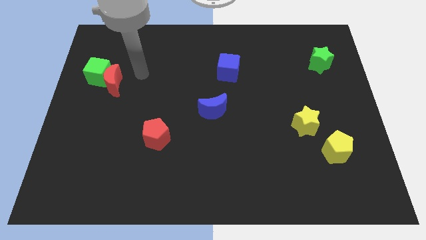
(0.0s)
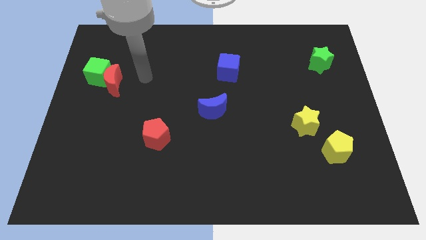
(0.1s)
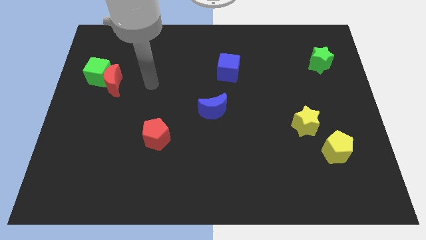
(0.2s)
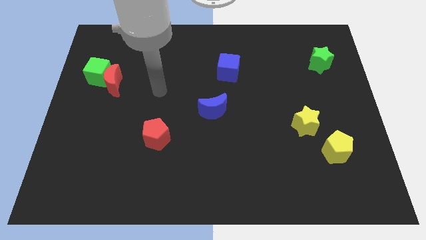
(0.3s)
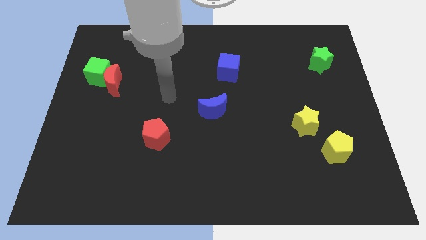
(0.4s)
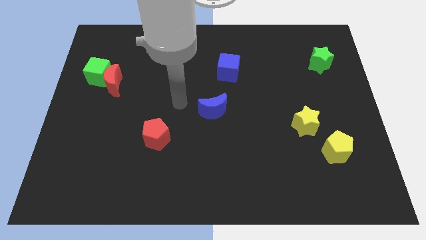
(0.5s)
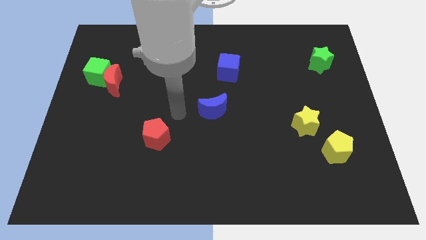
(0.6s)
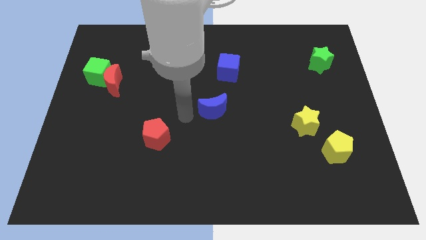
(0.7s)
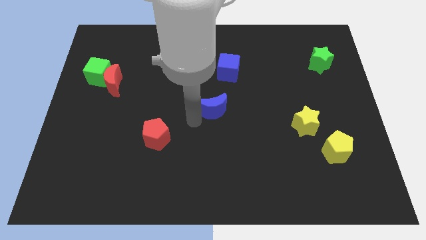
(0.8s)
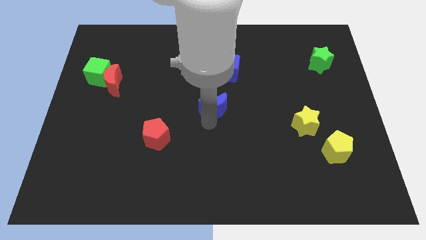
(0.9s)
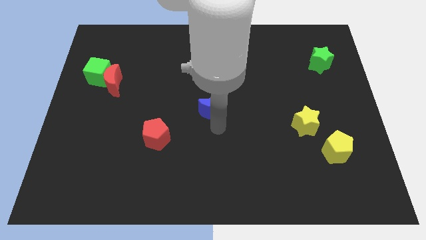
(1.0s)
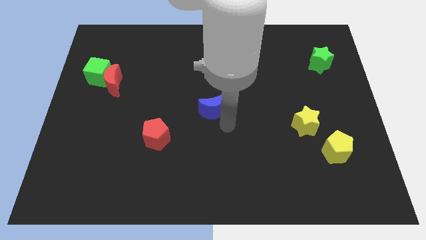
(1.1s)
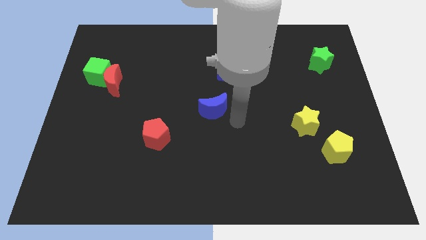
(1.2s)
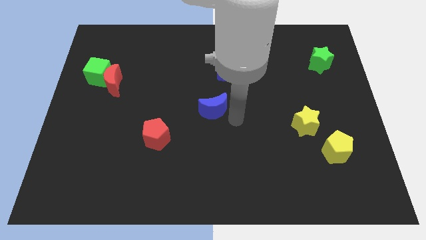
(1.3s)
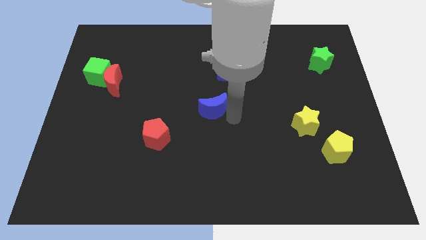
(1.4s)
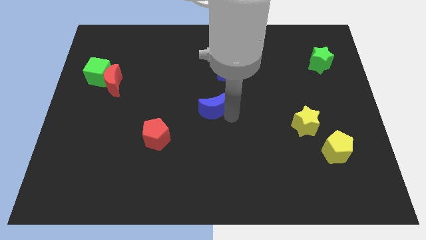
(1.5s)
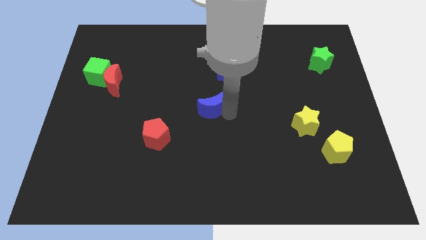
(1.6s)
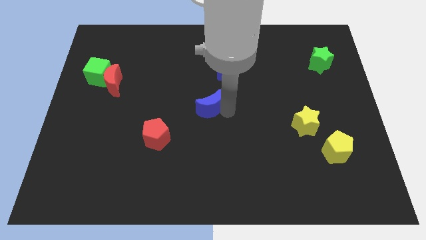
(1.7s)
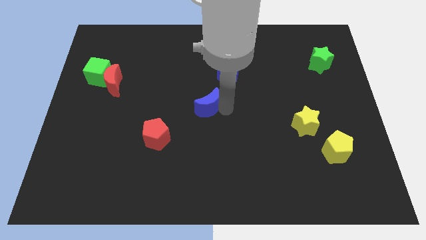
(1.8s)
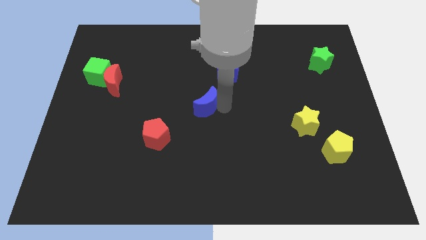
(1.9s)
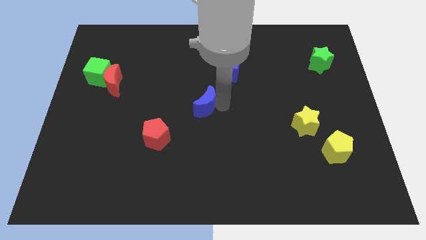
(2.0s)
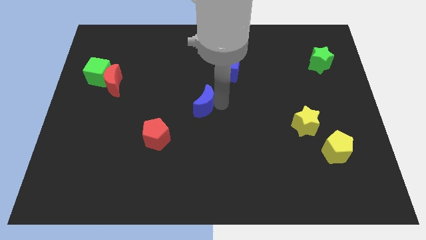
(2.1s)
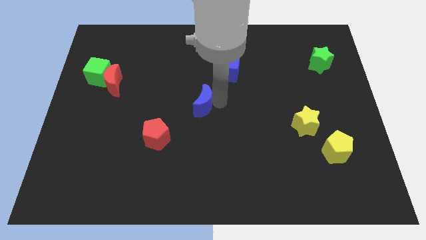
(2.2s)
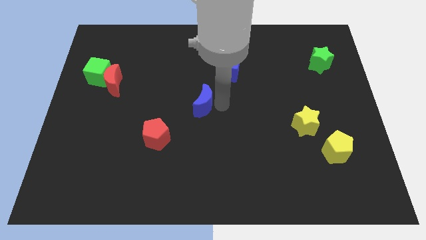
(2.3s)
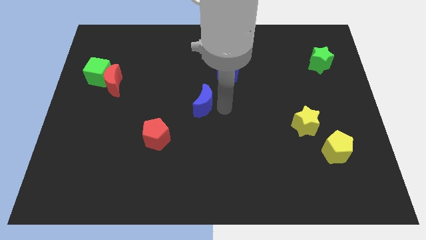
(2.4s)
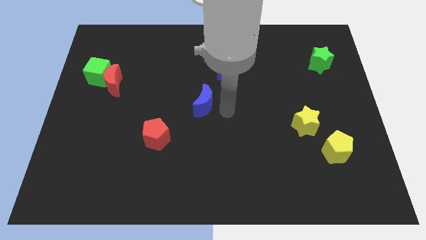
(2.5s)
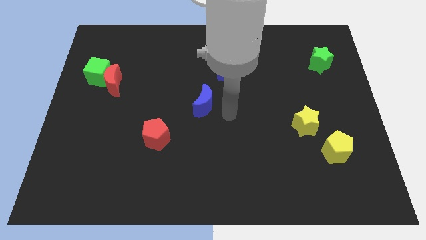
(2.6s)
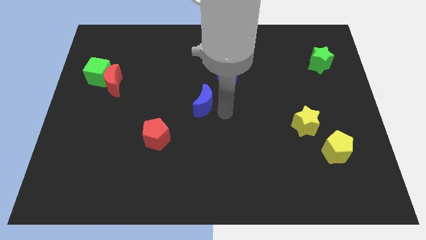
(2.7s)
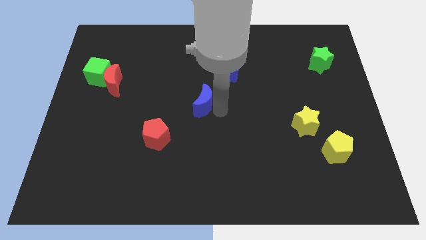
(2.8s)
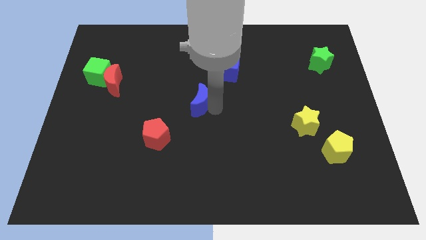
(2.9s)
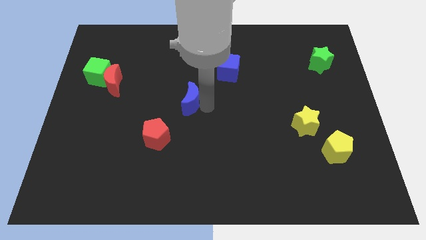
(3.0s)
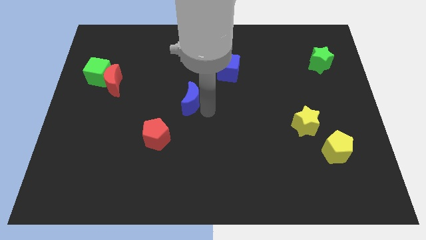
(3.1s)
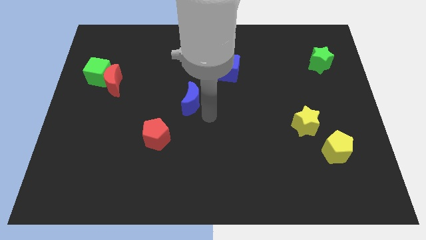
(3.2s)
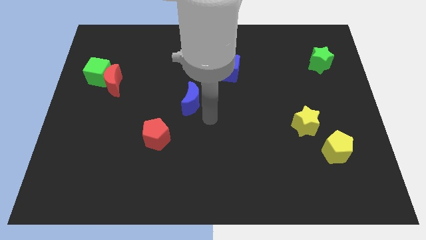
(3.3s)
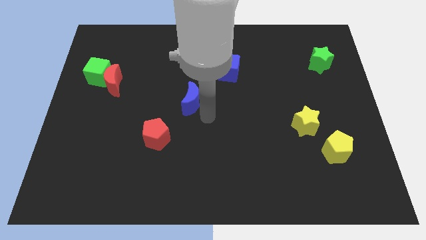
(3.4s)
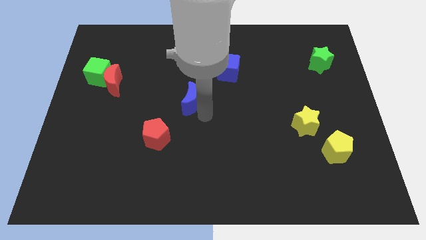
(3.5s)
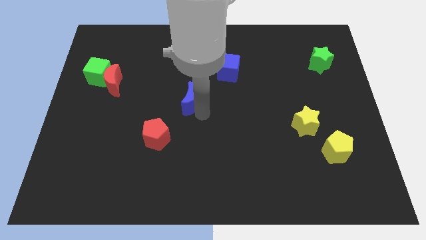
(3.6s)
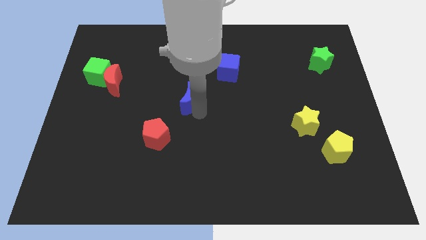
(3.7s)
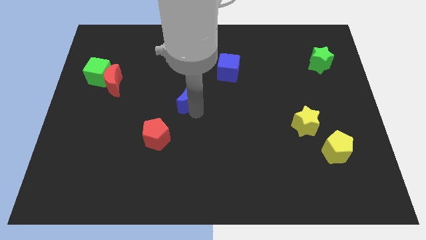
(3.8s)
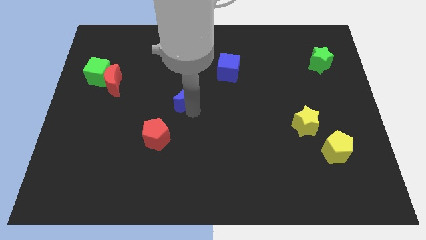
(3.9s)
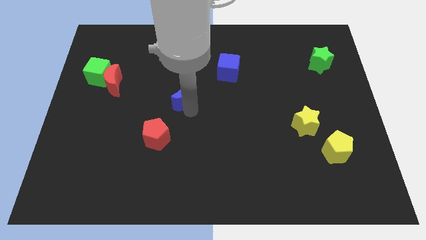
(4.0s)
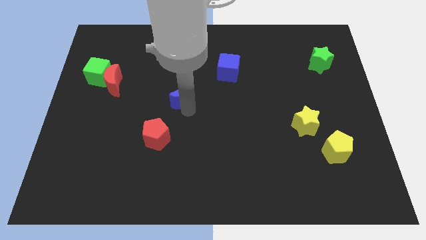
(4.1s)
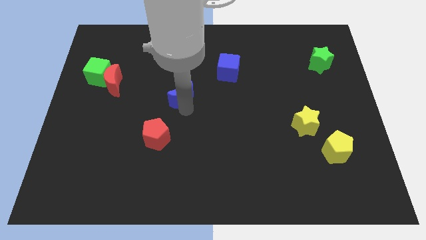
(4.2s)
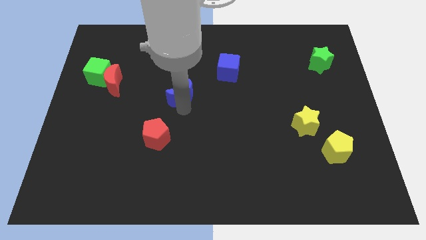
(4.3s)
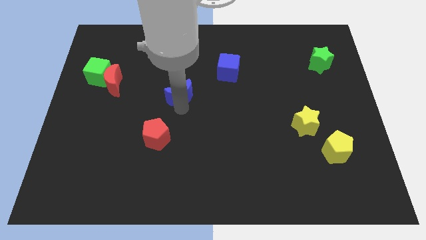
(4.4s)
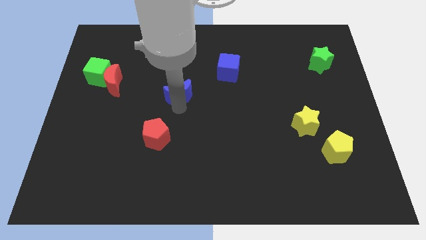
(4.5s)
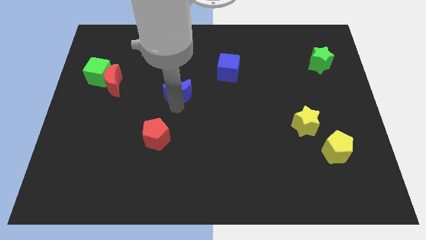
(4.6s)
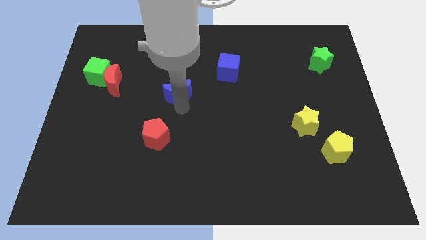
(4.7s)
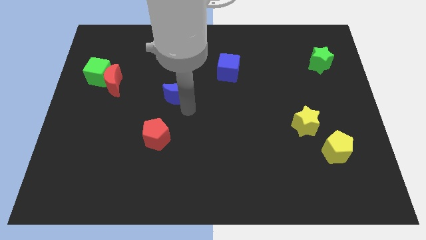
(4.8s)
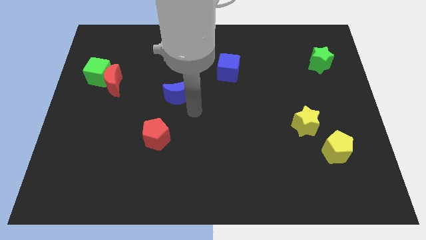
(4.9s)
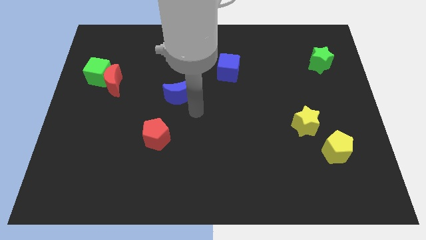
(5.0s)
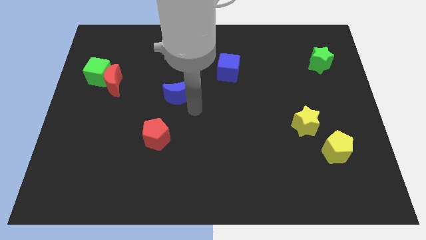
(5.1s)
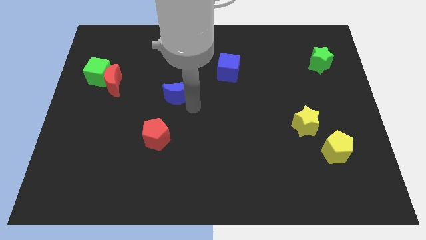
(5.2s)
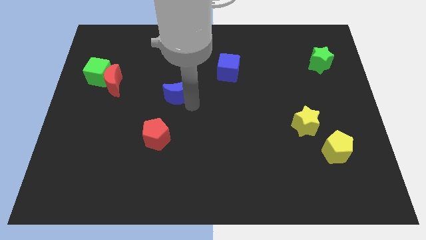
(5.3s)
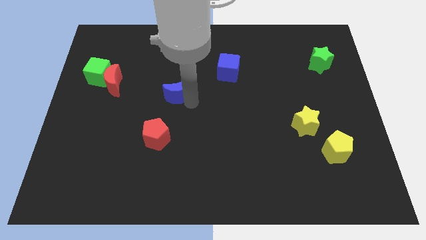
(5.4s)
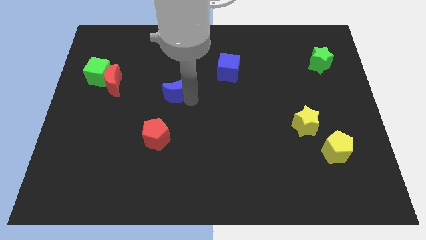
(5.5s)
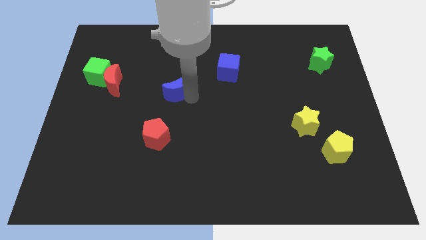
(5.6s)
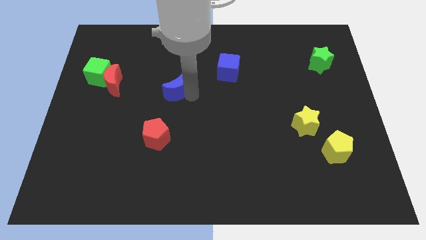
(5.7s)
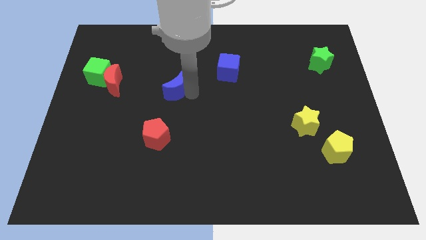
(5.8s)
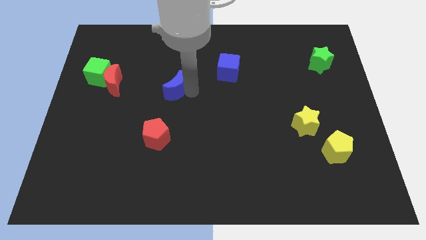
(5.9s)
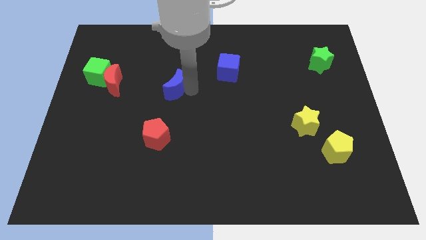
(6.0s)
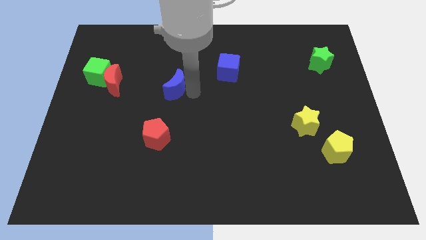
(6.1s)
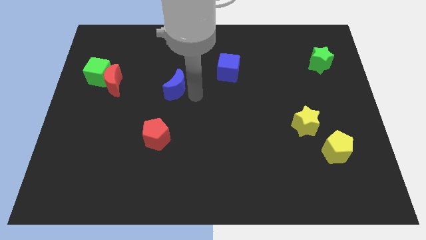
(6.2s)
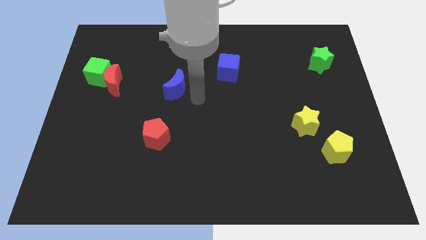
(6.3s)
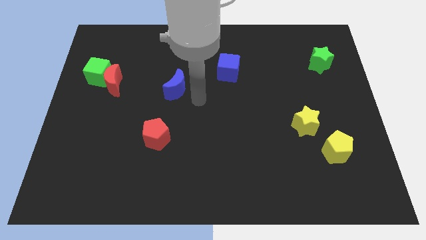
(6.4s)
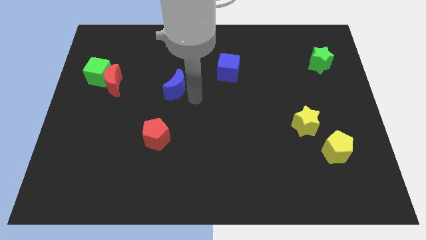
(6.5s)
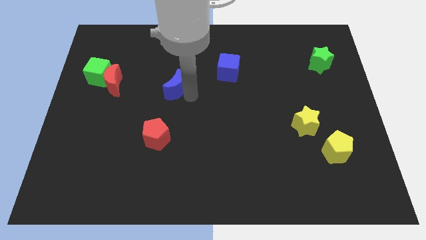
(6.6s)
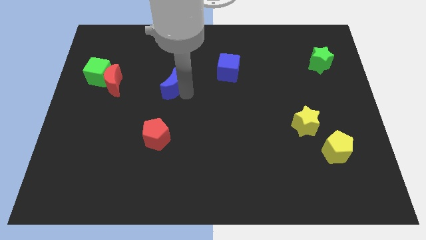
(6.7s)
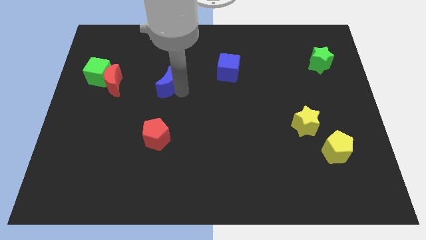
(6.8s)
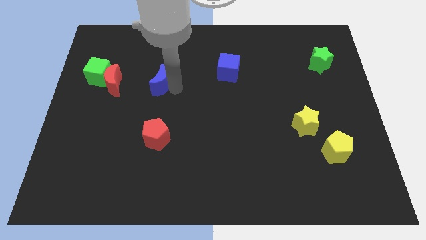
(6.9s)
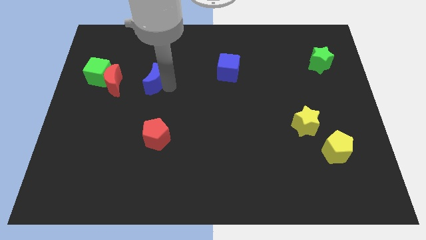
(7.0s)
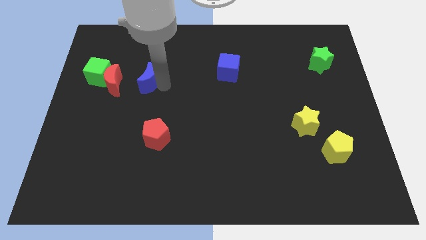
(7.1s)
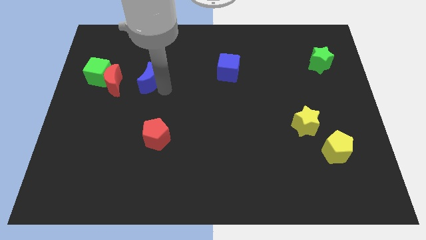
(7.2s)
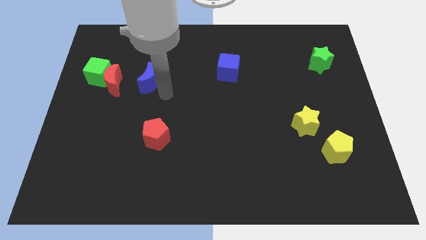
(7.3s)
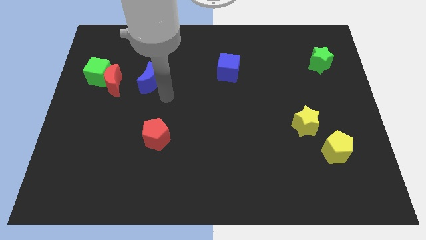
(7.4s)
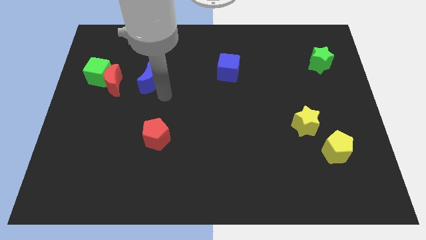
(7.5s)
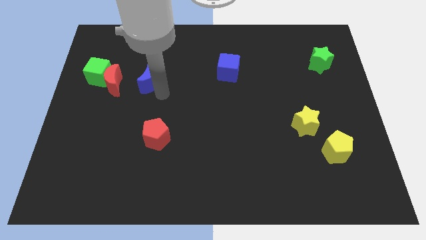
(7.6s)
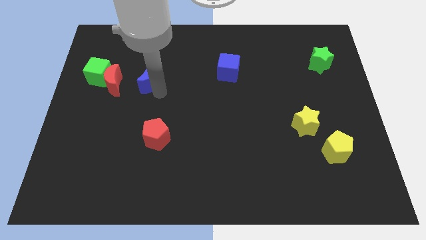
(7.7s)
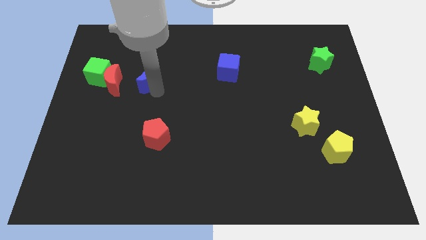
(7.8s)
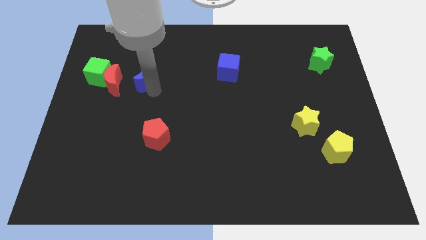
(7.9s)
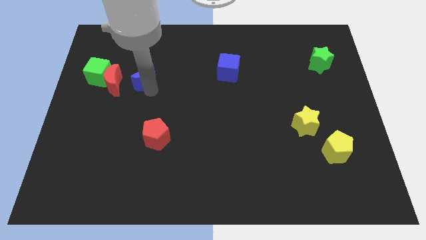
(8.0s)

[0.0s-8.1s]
push the blue moon diagonally up and to the right of the red moon
